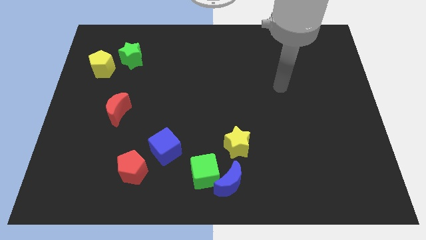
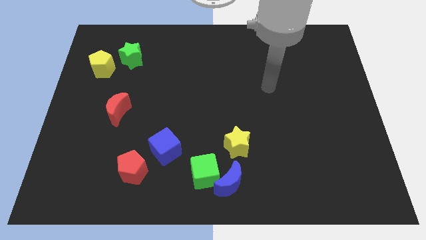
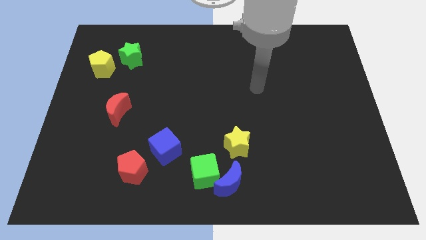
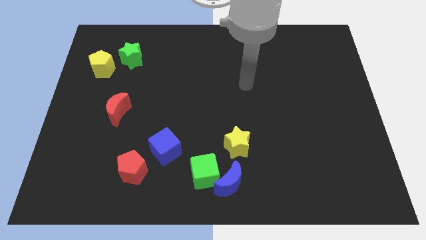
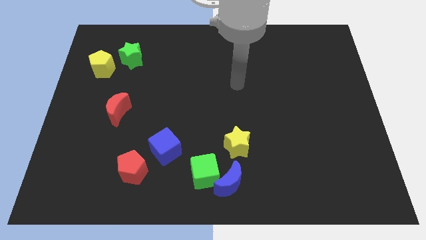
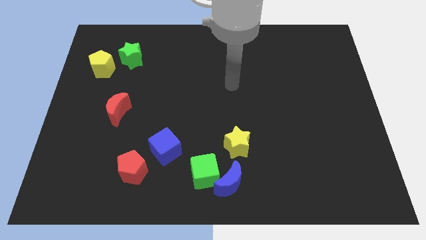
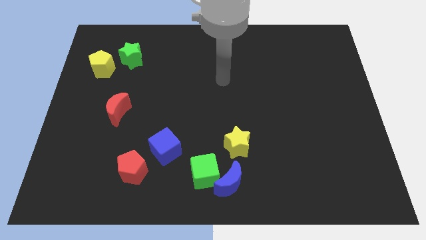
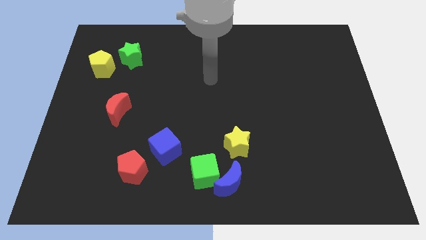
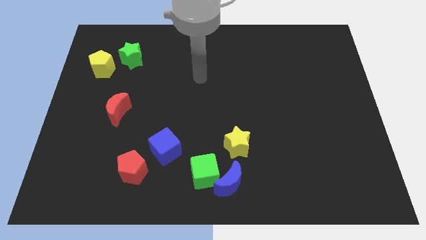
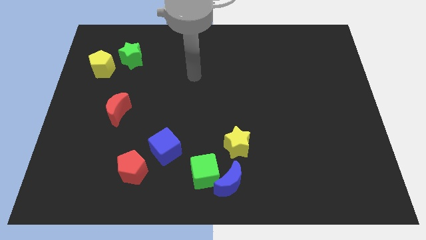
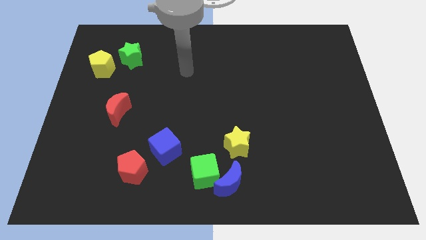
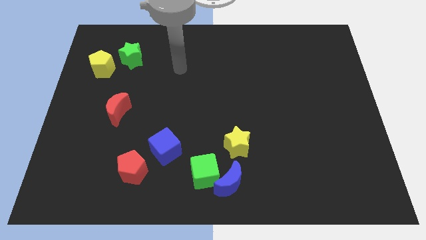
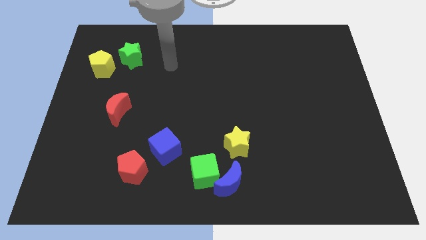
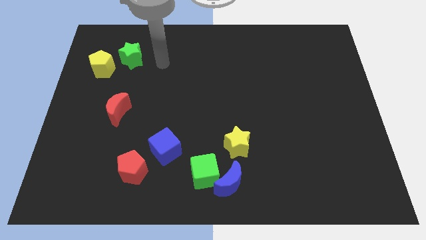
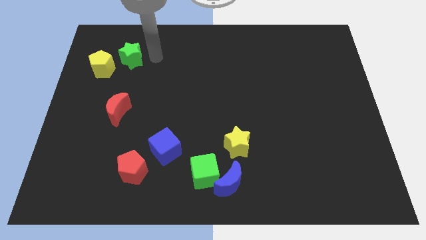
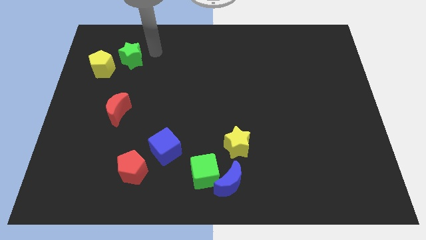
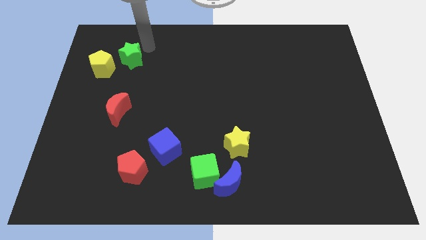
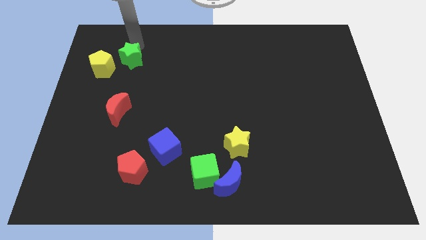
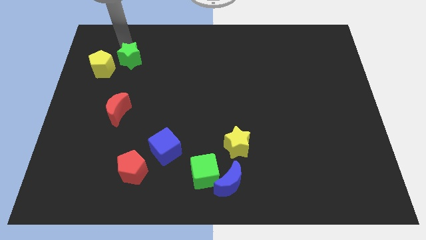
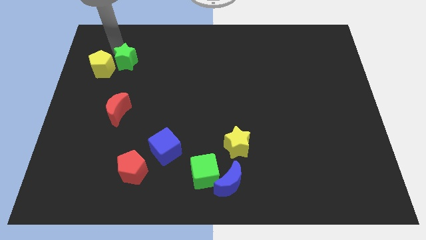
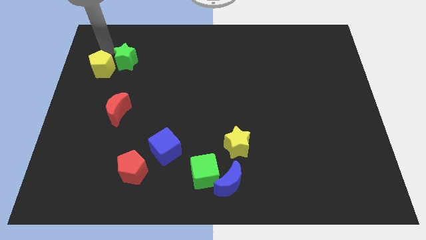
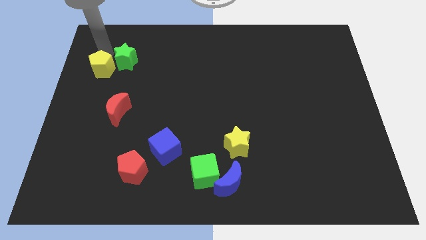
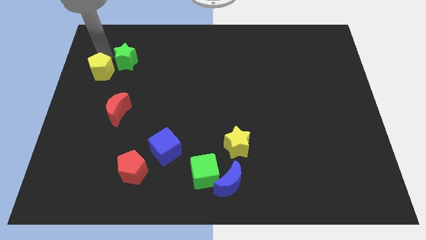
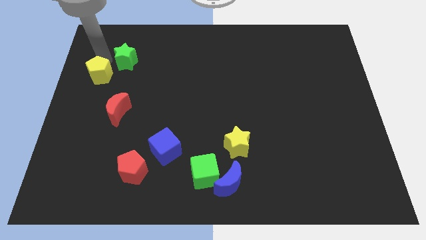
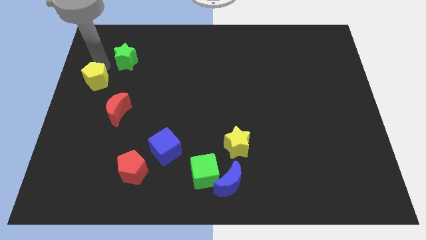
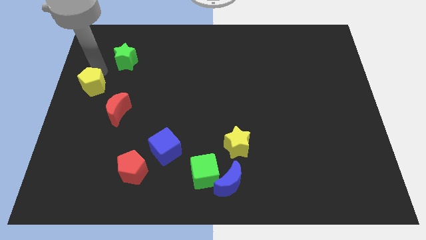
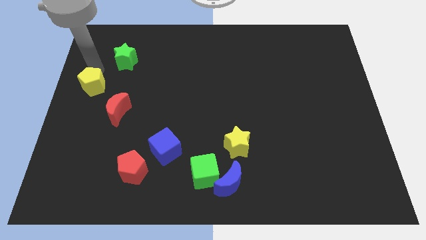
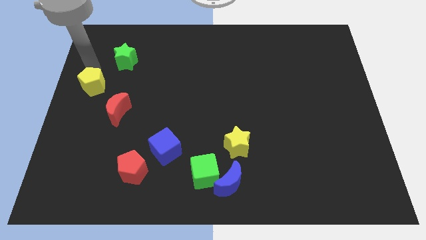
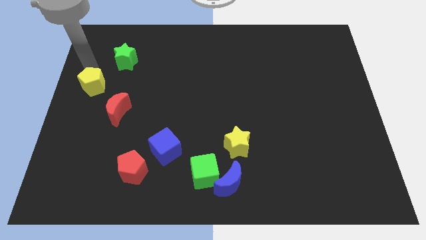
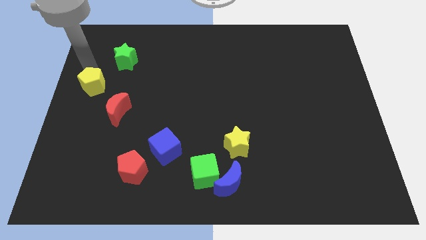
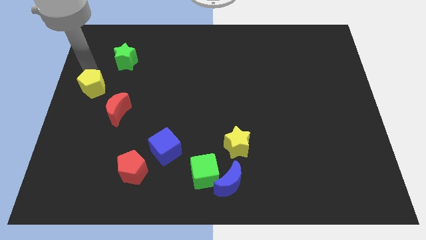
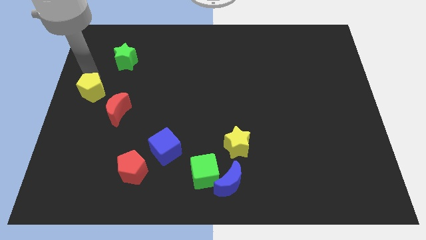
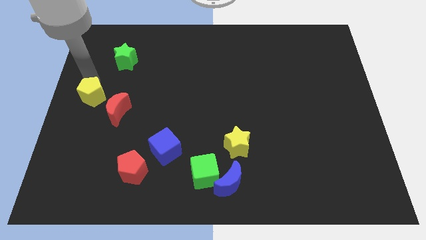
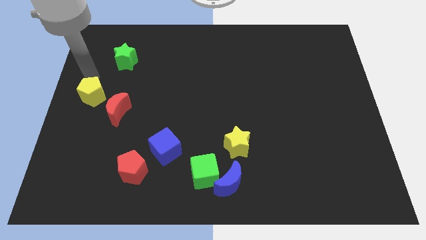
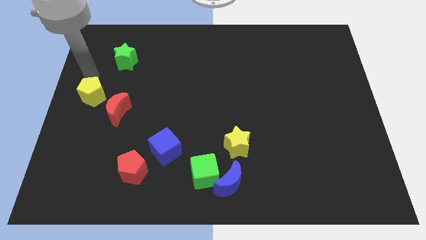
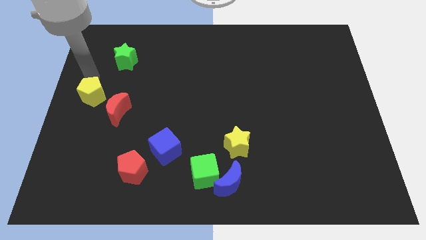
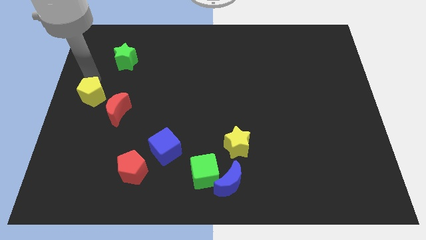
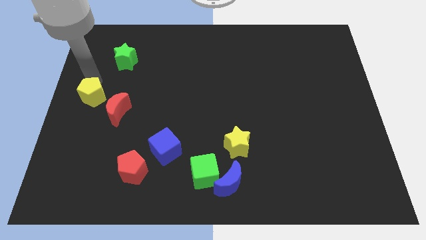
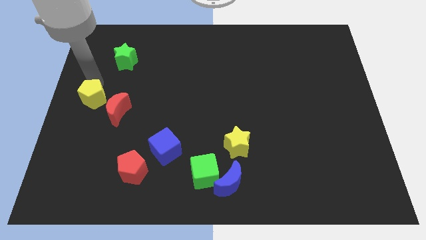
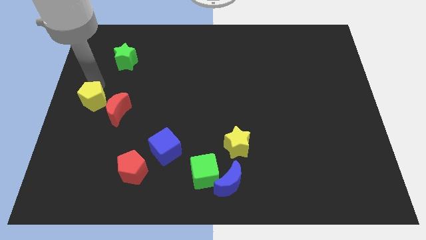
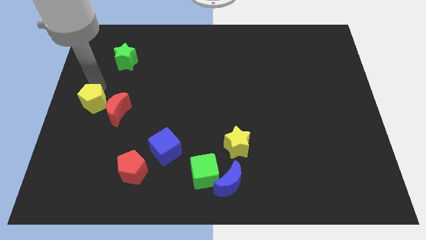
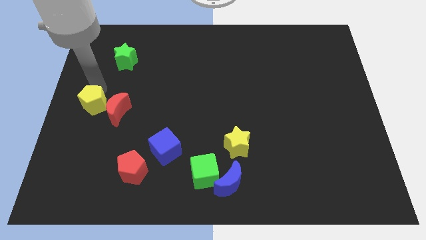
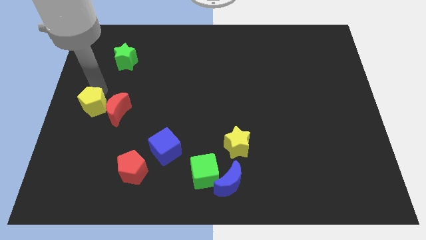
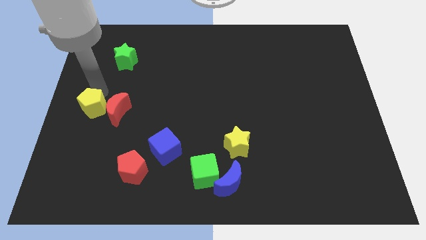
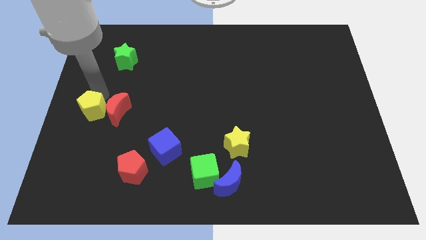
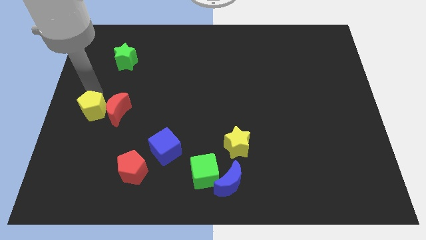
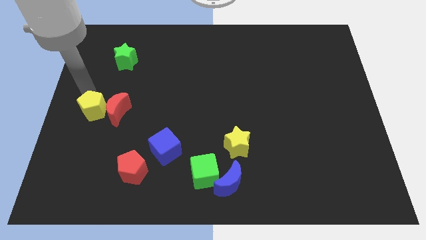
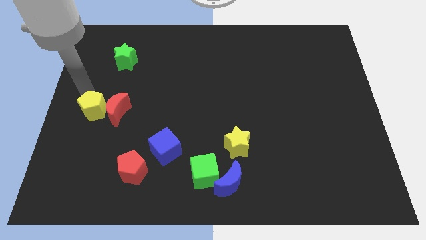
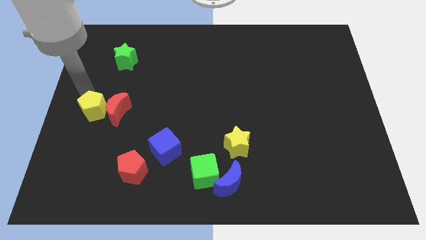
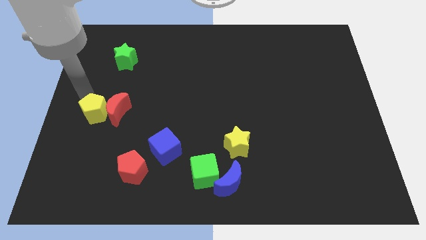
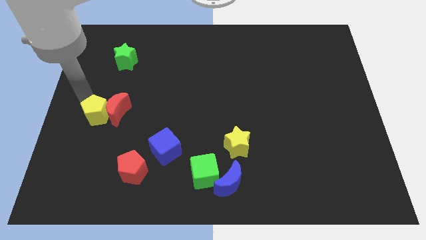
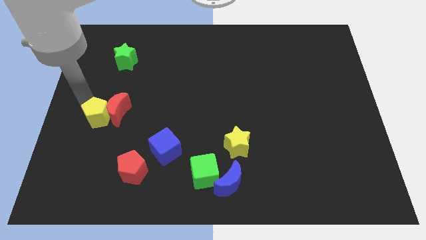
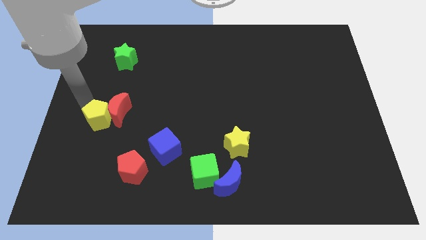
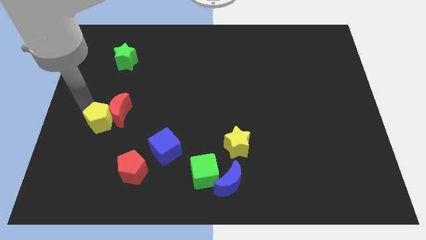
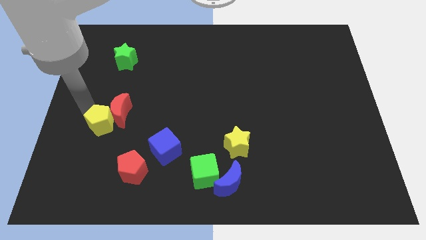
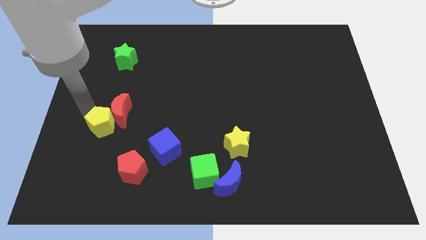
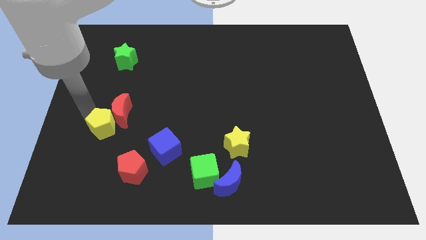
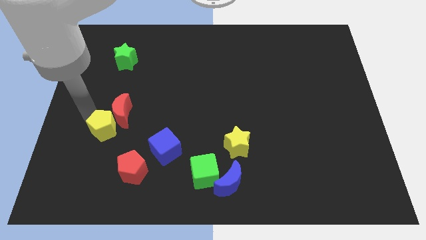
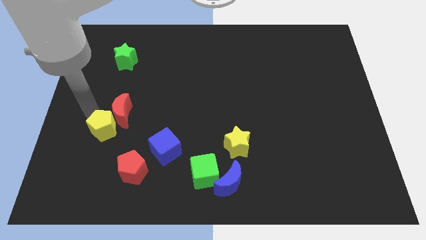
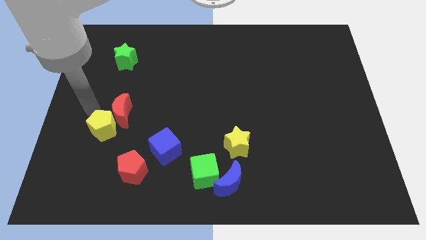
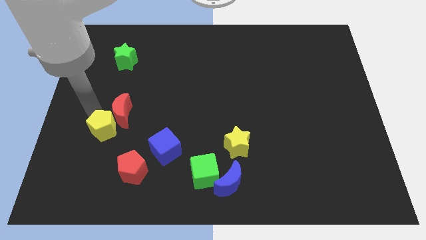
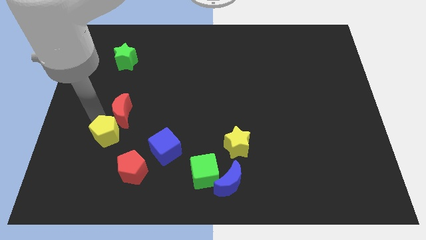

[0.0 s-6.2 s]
push the yellow pentagon just left of the blue cube

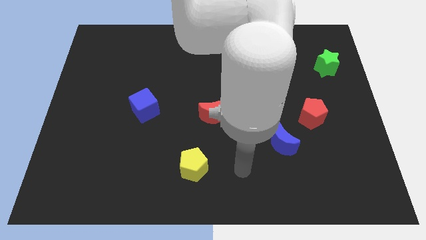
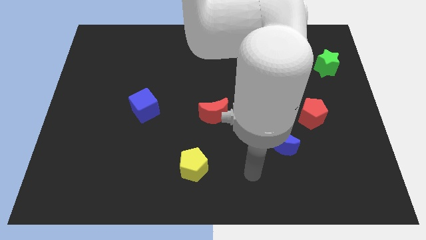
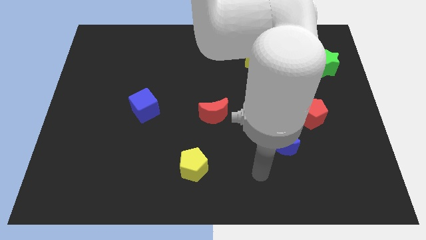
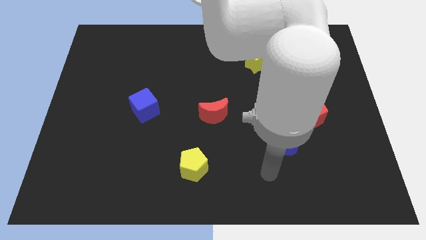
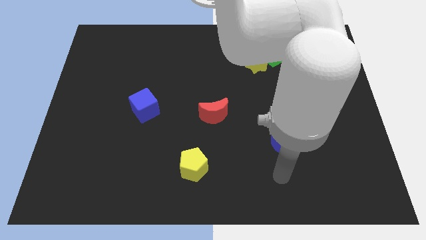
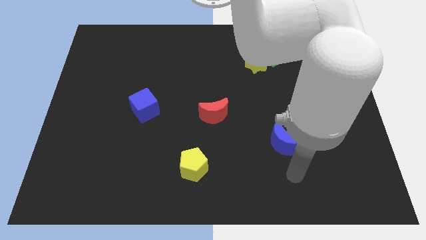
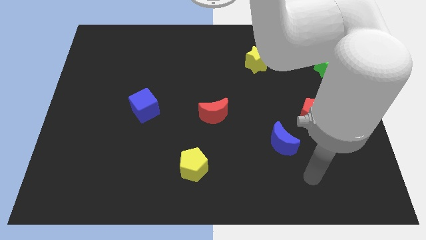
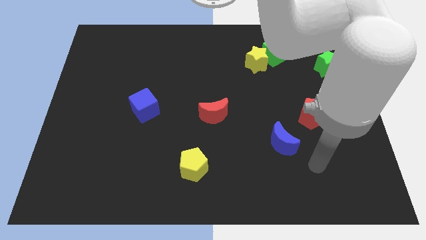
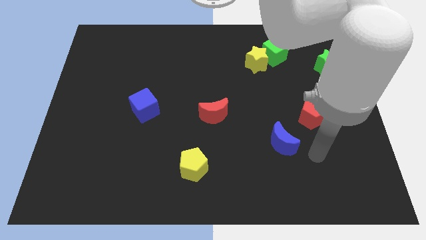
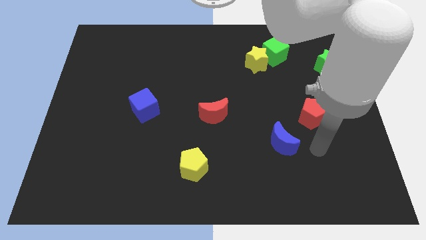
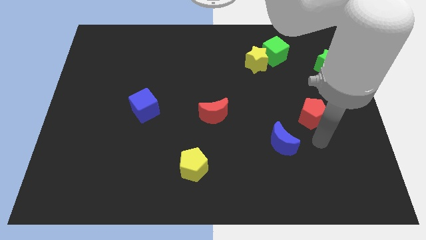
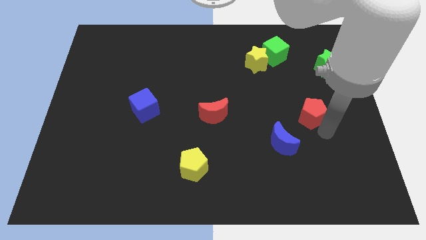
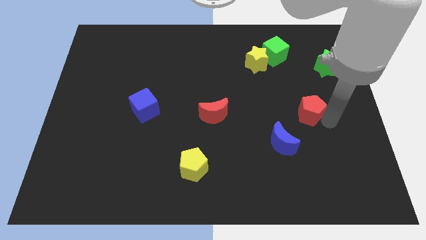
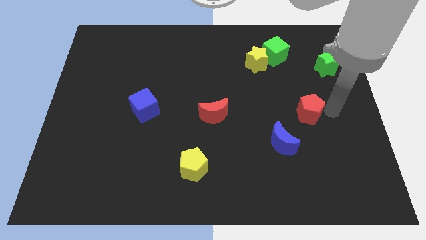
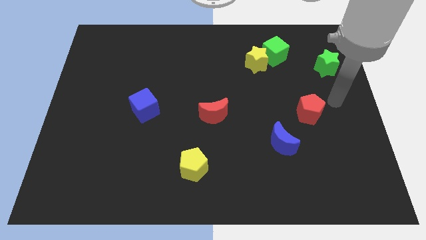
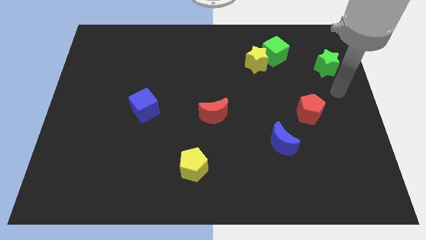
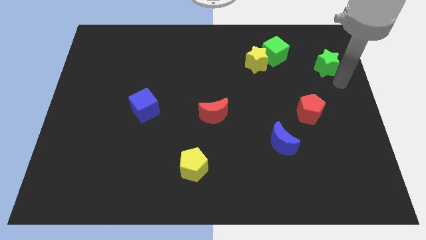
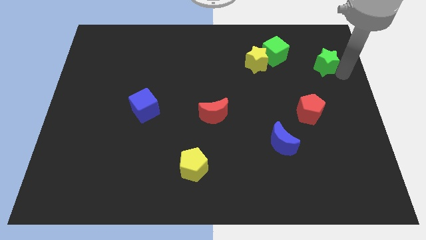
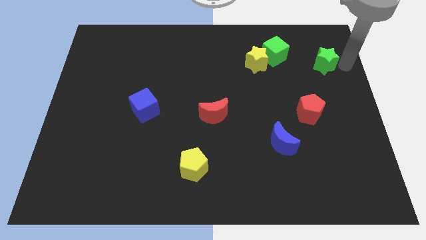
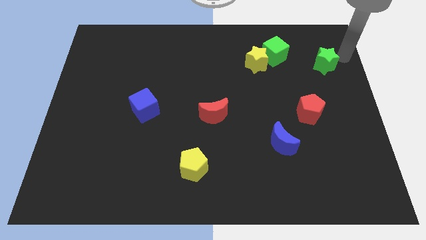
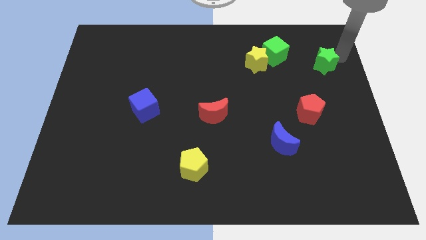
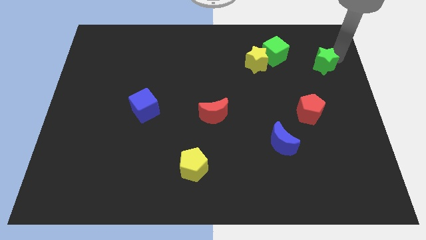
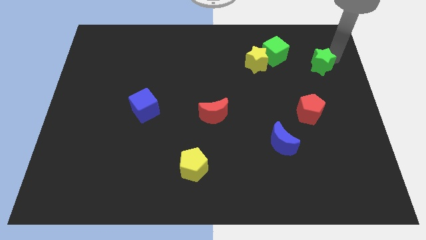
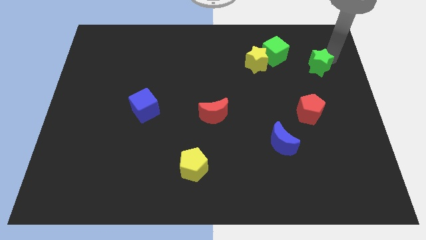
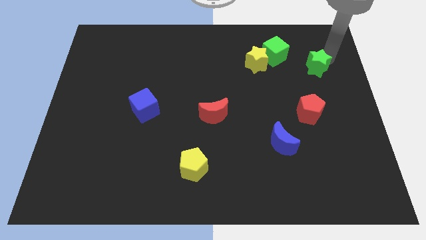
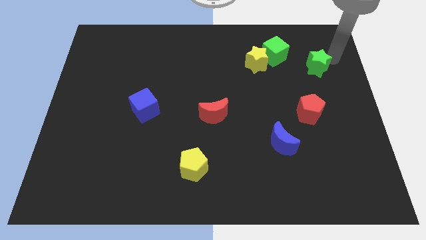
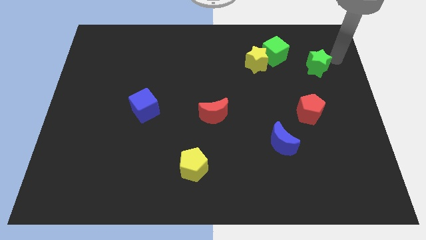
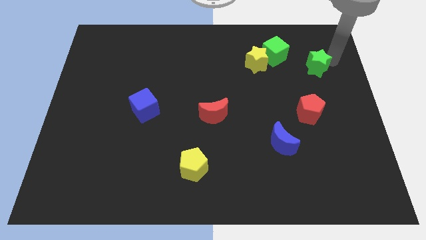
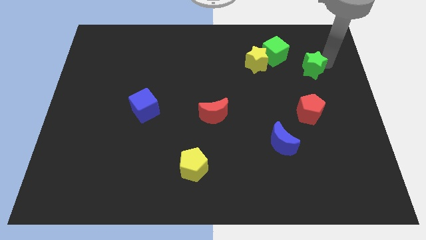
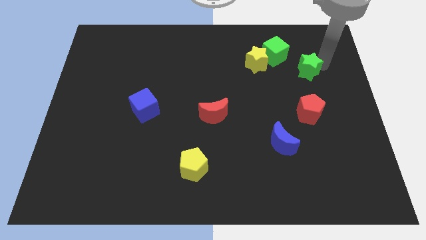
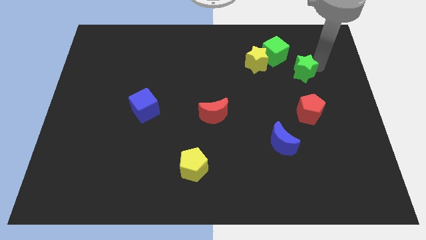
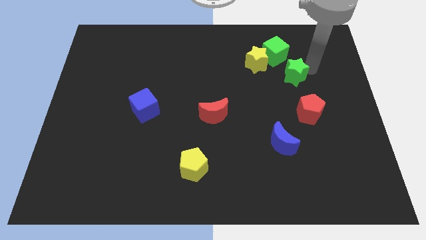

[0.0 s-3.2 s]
put the green star to the bottom side of the green cube
